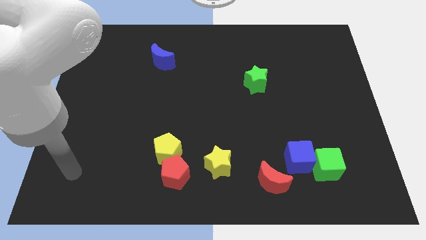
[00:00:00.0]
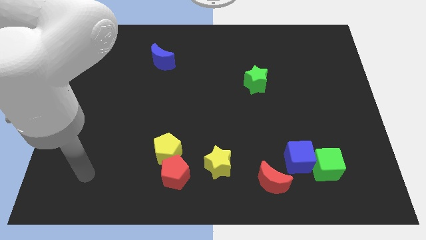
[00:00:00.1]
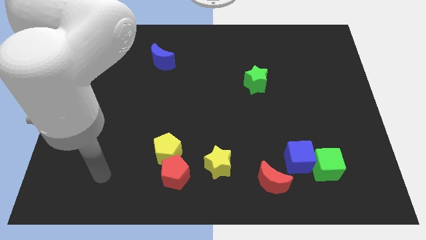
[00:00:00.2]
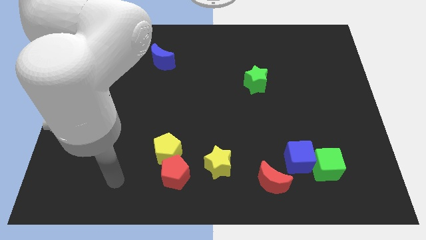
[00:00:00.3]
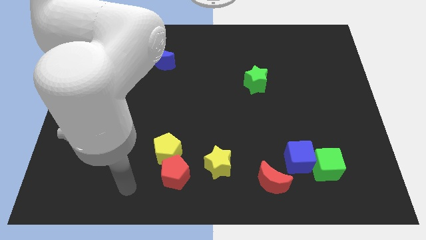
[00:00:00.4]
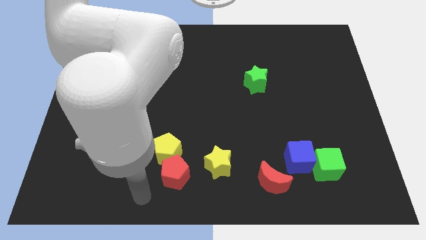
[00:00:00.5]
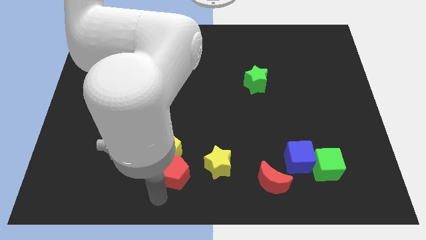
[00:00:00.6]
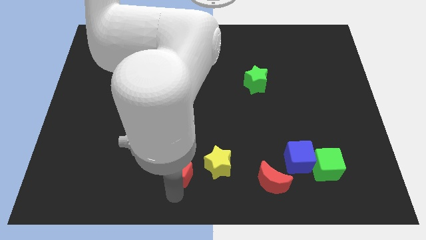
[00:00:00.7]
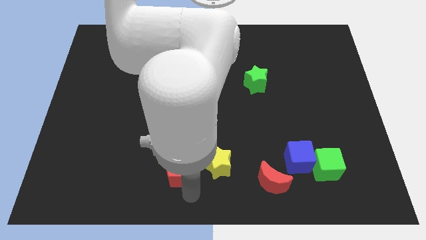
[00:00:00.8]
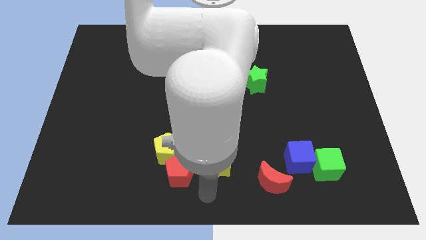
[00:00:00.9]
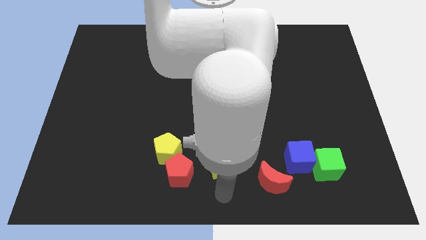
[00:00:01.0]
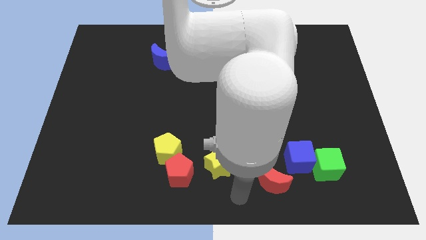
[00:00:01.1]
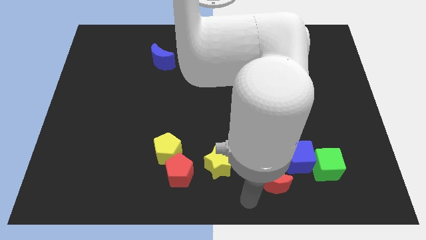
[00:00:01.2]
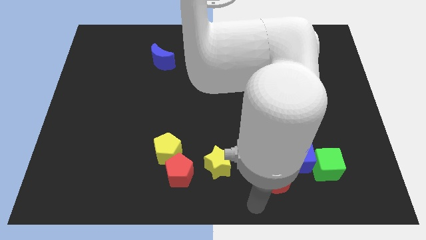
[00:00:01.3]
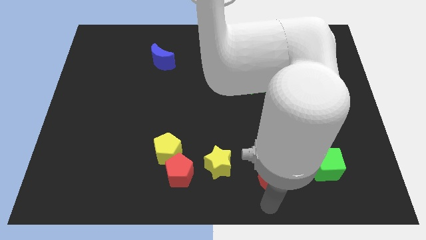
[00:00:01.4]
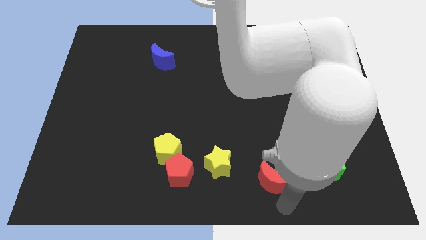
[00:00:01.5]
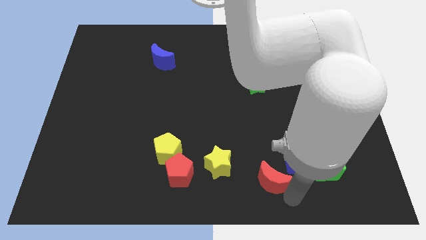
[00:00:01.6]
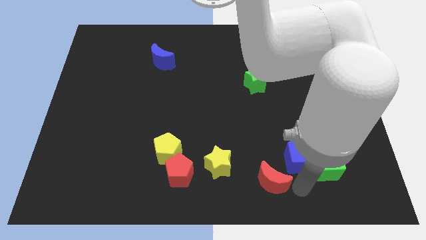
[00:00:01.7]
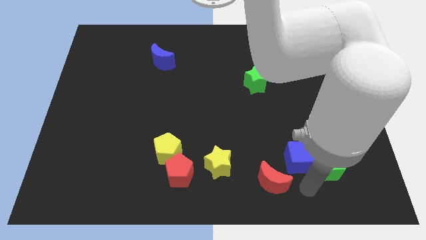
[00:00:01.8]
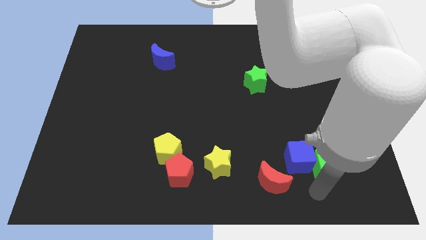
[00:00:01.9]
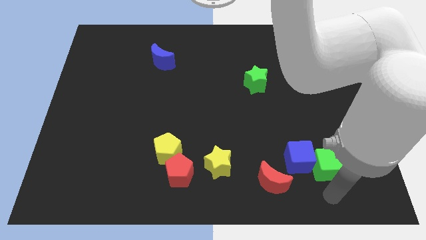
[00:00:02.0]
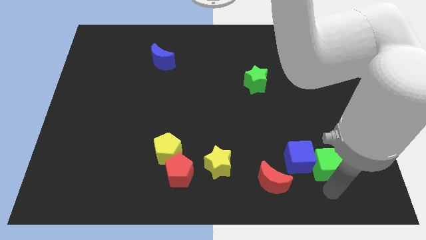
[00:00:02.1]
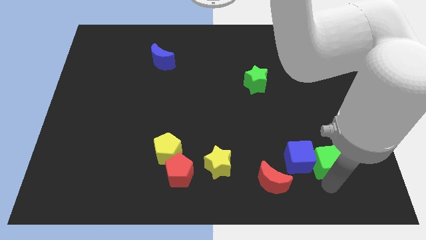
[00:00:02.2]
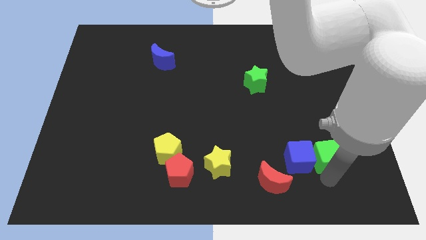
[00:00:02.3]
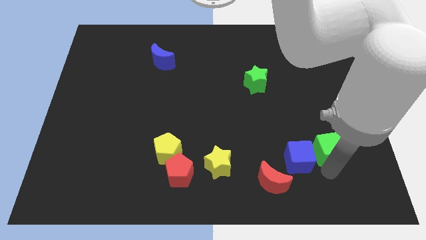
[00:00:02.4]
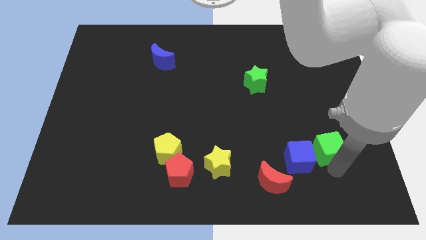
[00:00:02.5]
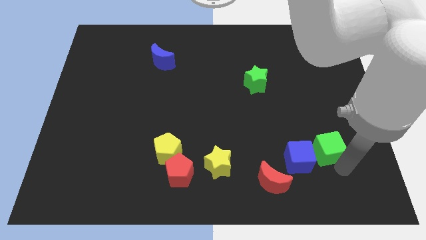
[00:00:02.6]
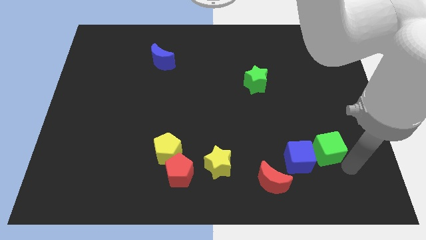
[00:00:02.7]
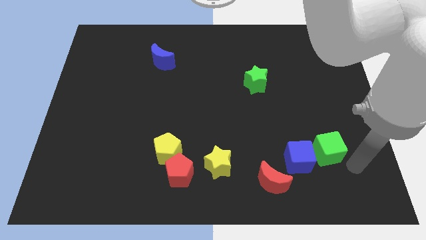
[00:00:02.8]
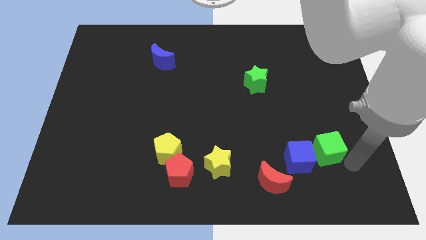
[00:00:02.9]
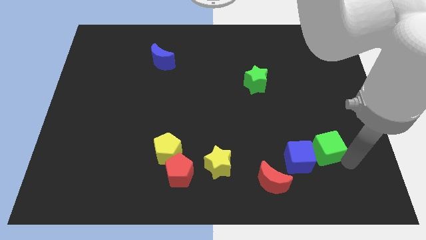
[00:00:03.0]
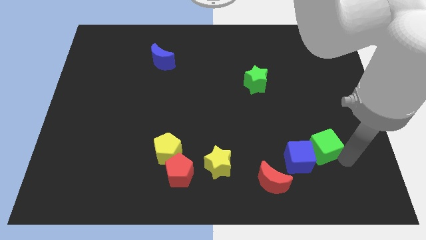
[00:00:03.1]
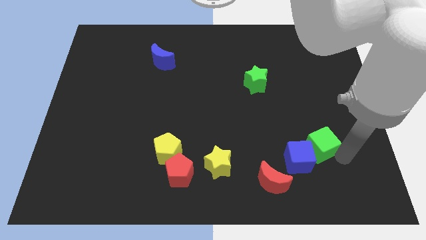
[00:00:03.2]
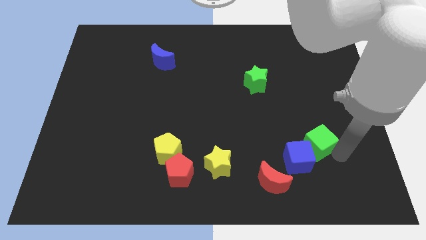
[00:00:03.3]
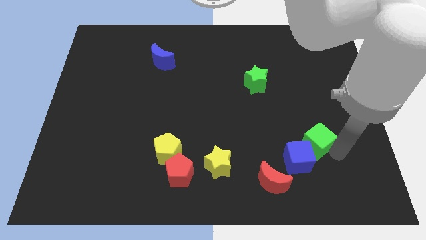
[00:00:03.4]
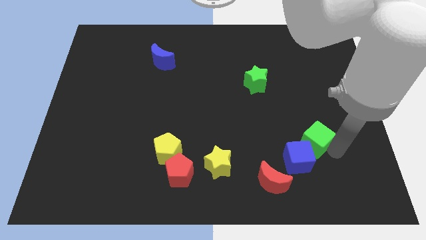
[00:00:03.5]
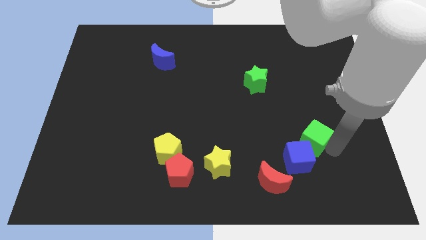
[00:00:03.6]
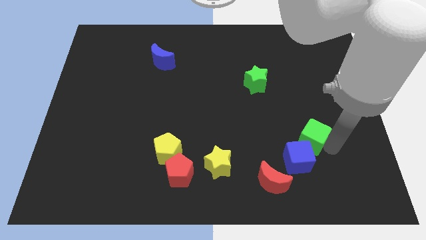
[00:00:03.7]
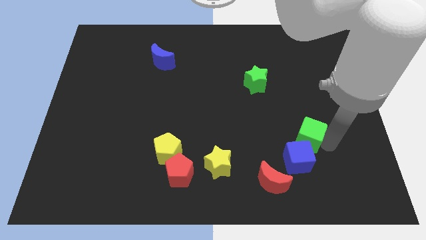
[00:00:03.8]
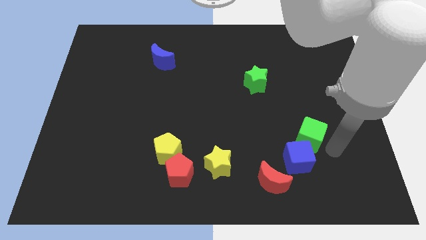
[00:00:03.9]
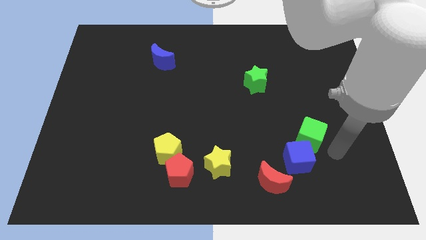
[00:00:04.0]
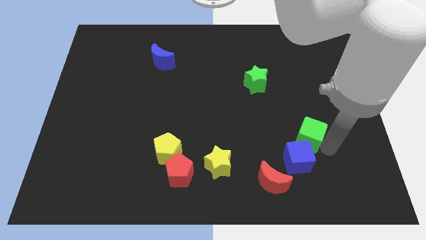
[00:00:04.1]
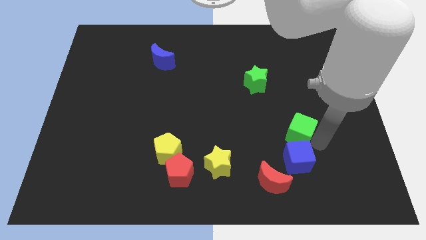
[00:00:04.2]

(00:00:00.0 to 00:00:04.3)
move the green cube somewhat upwards and left

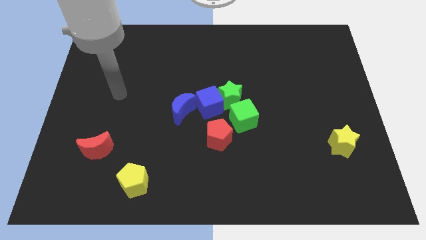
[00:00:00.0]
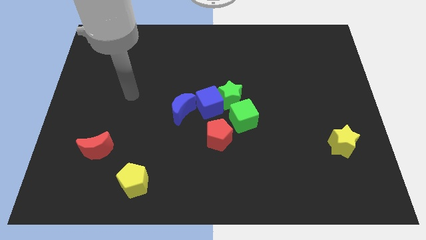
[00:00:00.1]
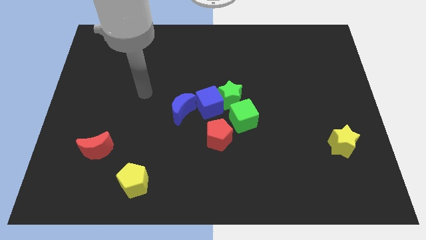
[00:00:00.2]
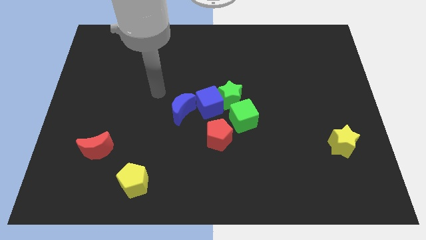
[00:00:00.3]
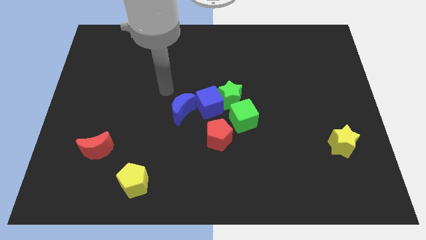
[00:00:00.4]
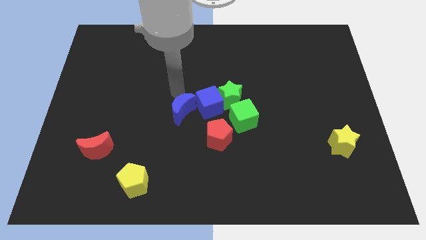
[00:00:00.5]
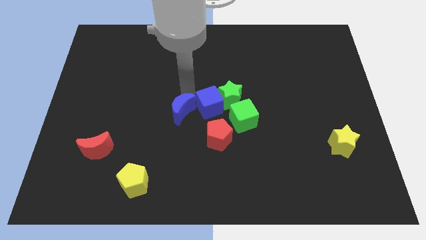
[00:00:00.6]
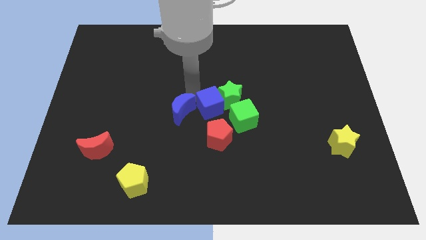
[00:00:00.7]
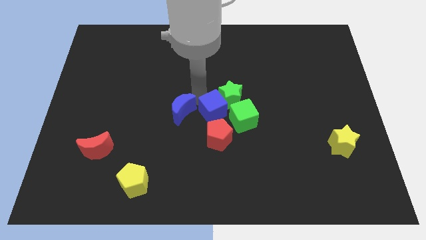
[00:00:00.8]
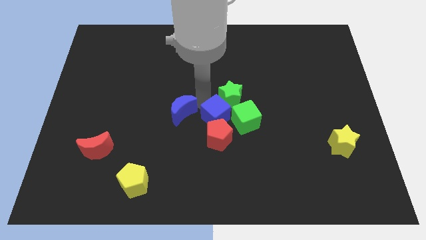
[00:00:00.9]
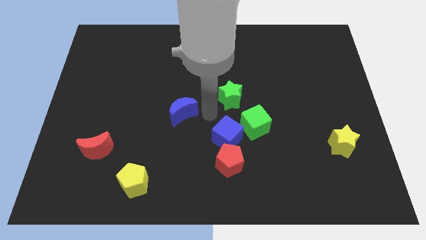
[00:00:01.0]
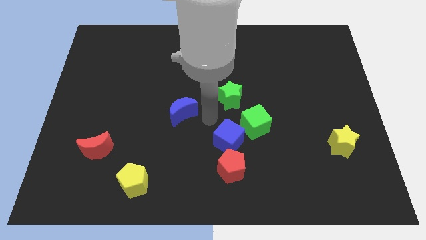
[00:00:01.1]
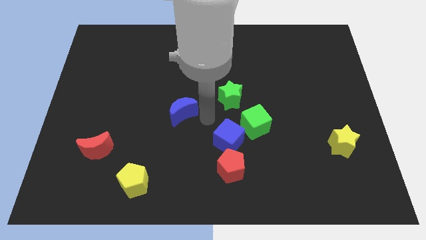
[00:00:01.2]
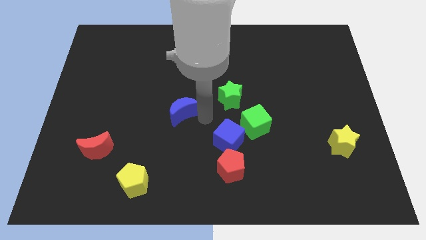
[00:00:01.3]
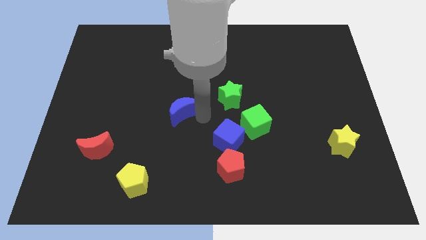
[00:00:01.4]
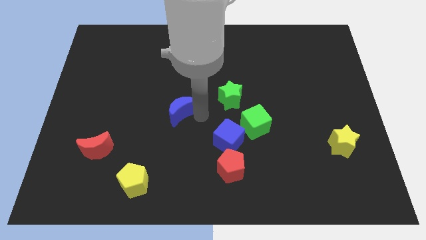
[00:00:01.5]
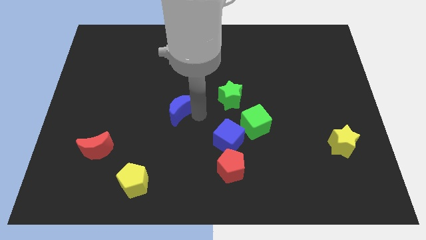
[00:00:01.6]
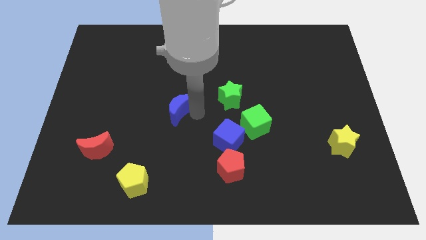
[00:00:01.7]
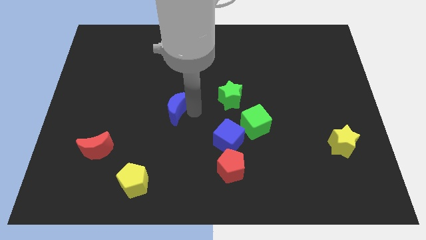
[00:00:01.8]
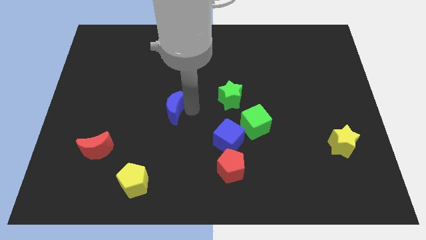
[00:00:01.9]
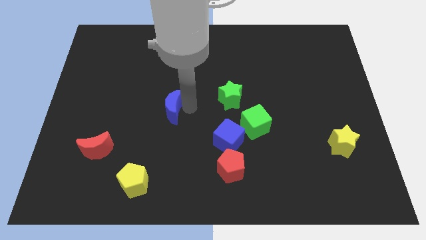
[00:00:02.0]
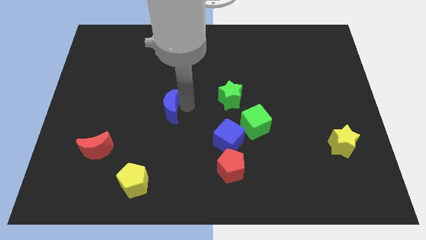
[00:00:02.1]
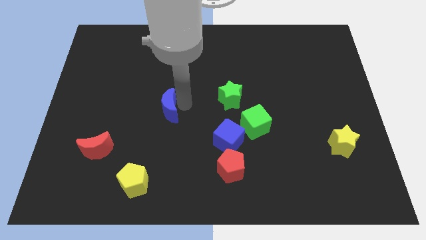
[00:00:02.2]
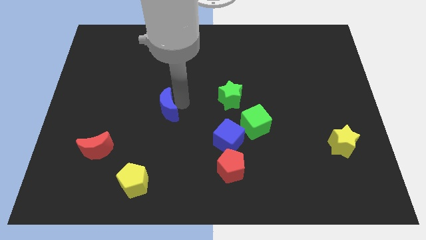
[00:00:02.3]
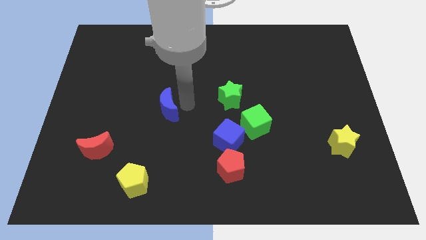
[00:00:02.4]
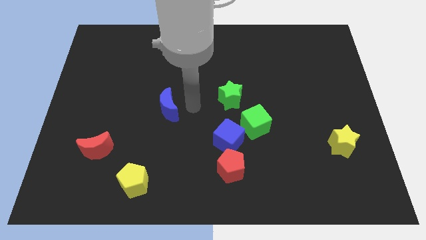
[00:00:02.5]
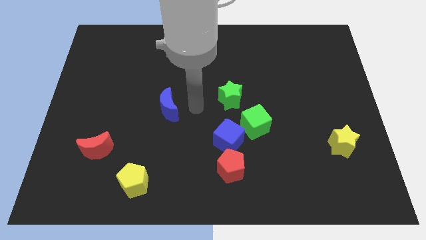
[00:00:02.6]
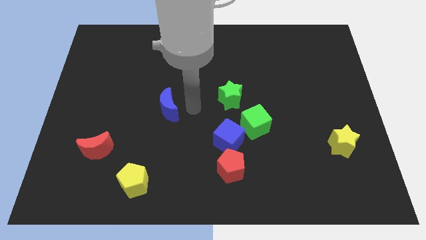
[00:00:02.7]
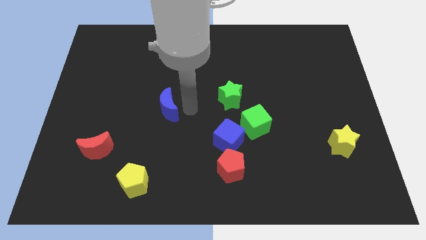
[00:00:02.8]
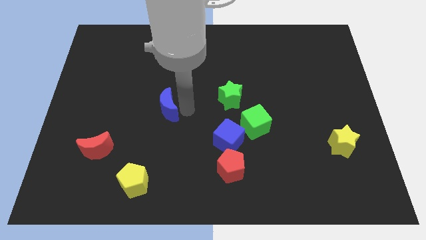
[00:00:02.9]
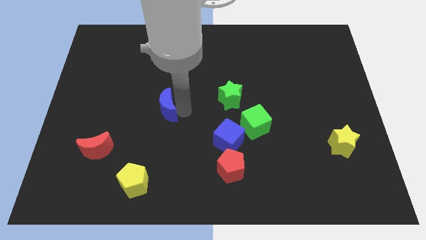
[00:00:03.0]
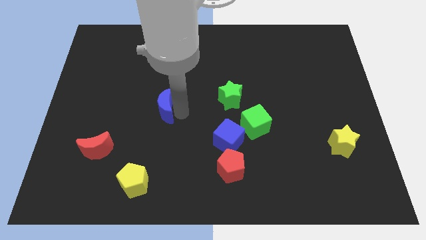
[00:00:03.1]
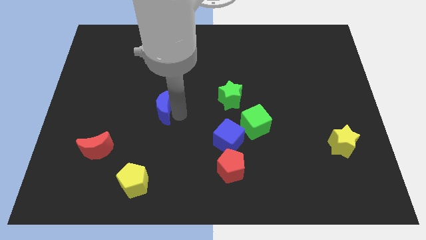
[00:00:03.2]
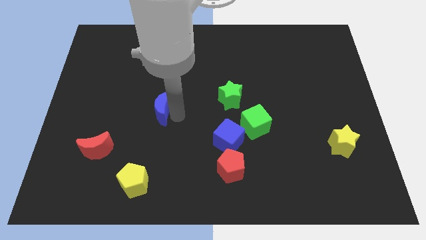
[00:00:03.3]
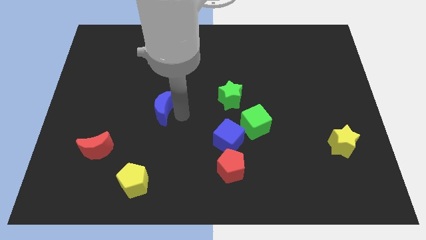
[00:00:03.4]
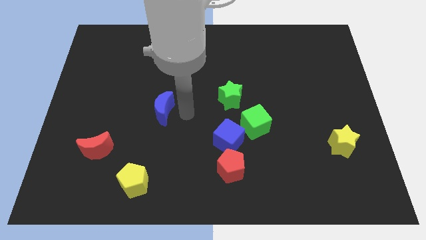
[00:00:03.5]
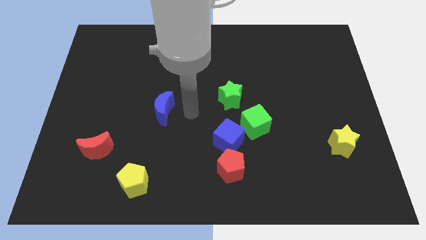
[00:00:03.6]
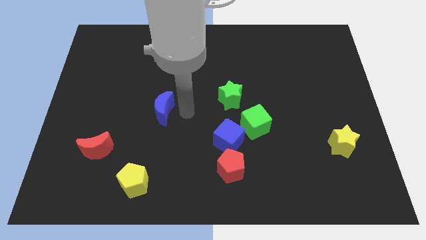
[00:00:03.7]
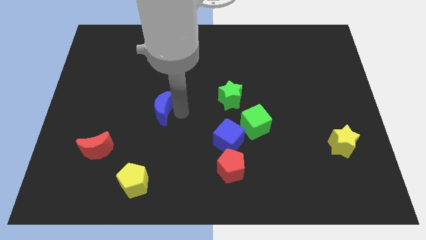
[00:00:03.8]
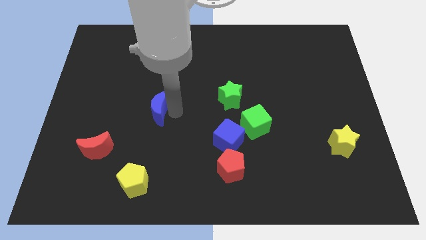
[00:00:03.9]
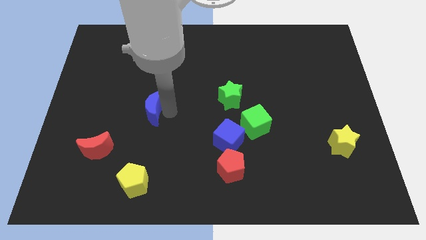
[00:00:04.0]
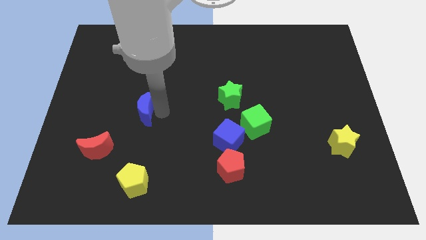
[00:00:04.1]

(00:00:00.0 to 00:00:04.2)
push the blue moon slightly left
